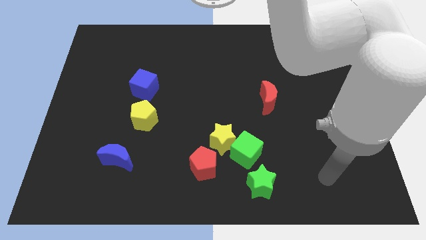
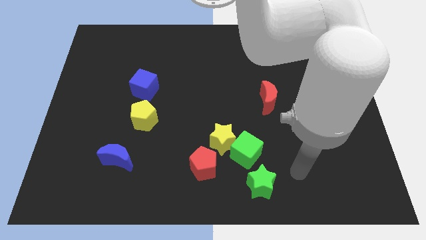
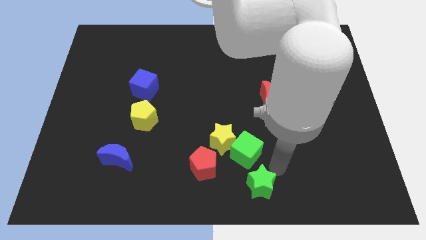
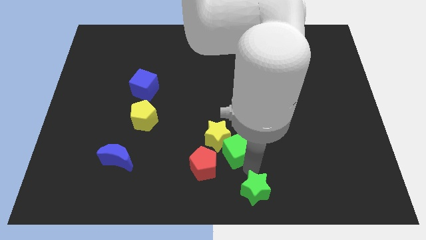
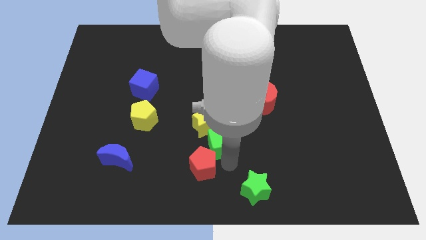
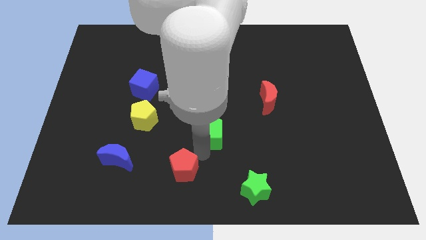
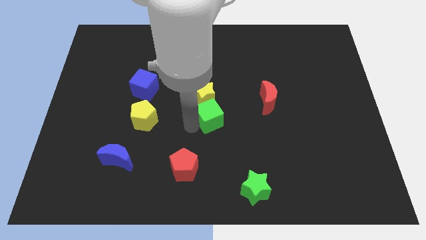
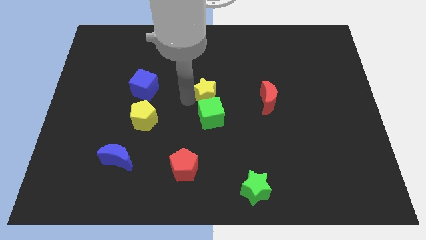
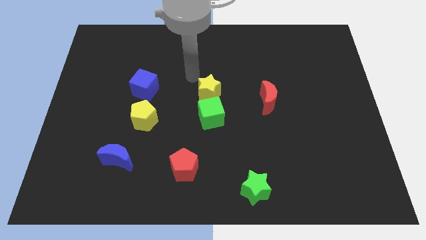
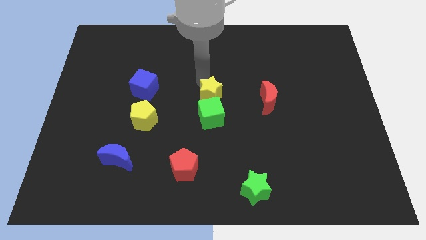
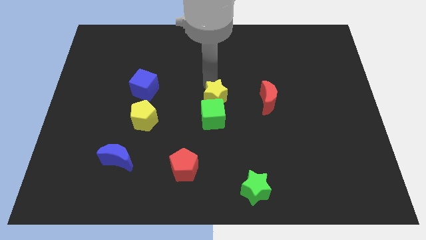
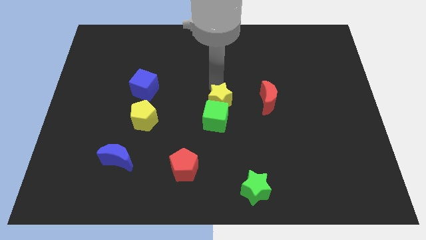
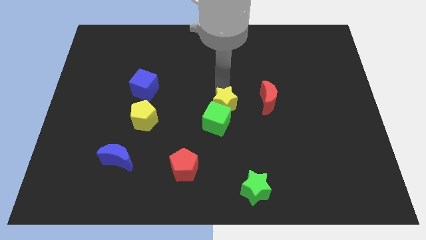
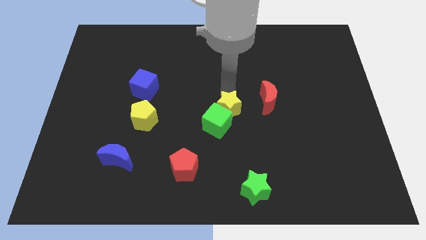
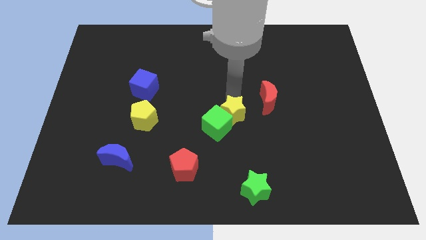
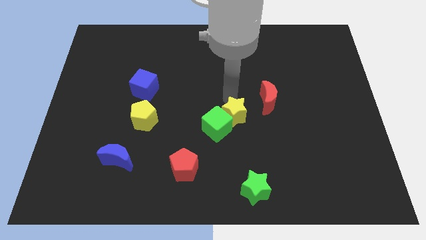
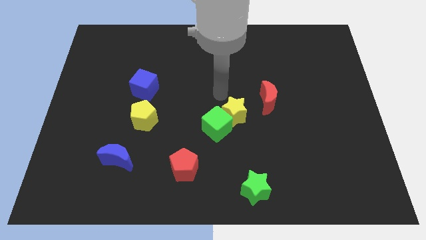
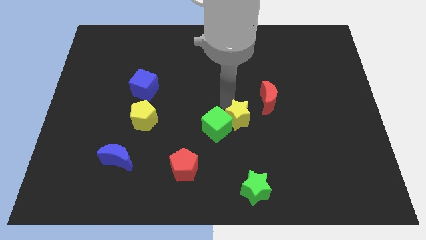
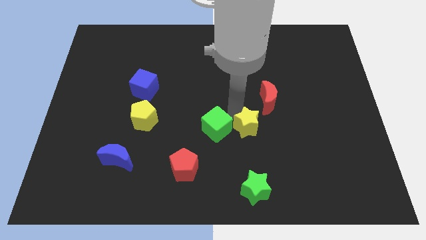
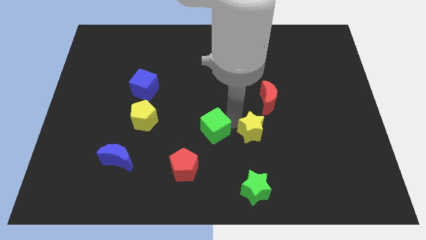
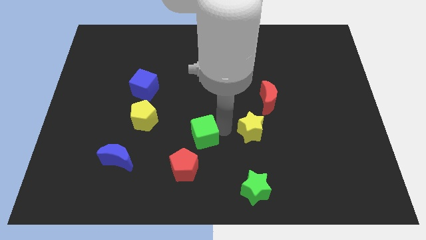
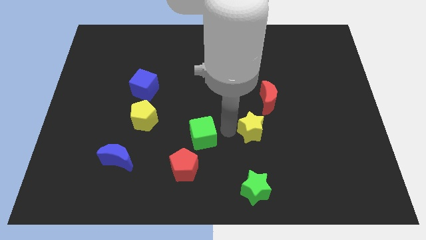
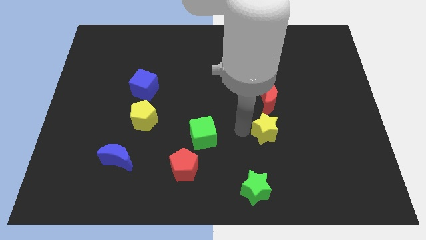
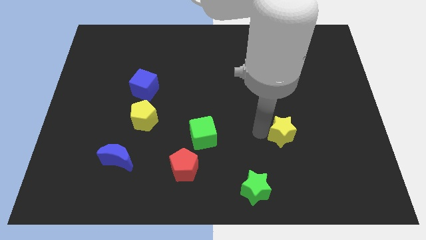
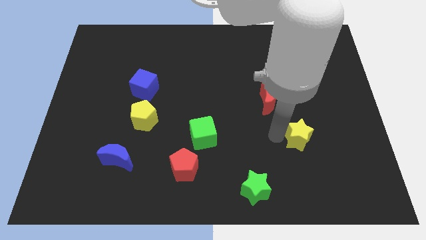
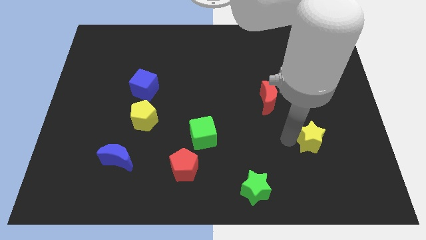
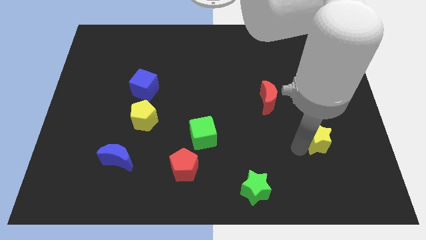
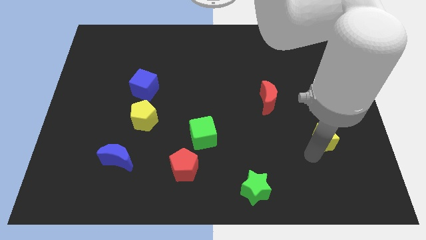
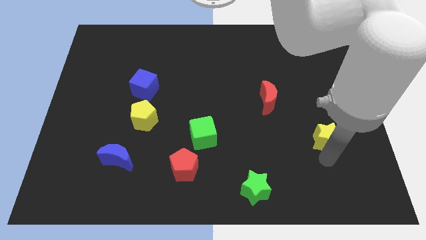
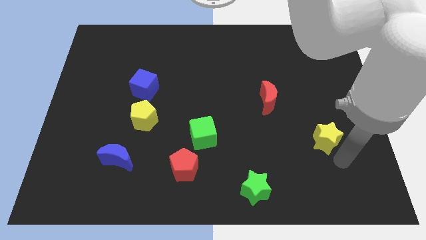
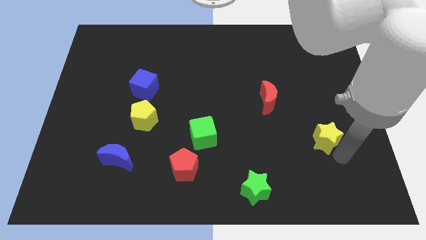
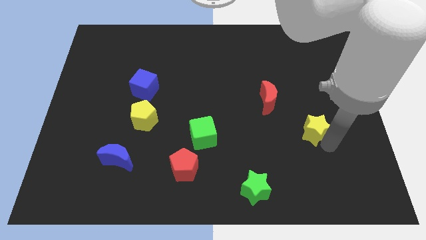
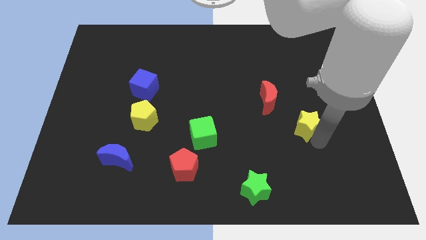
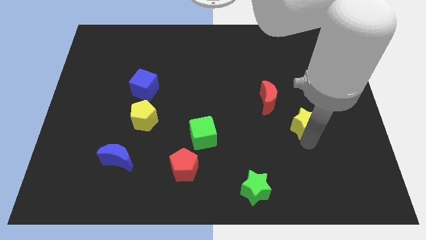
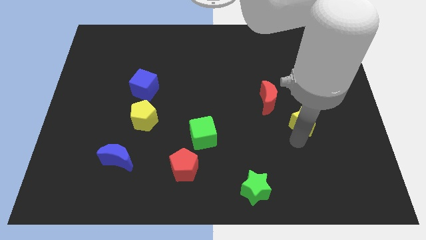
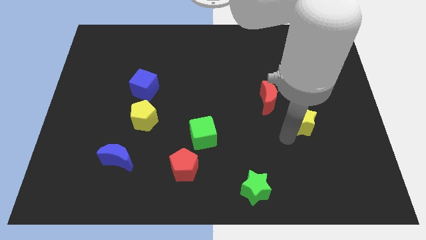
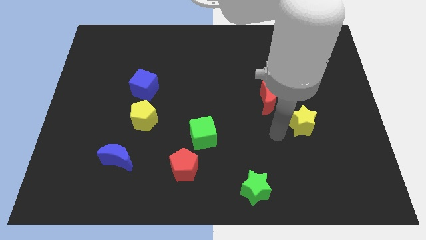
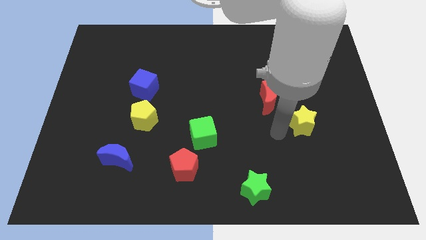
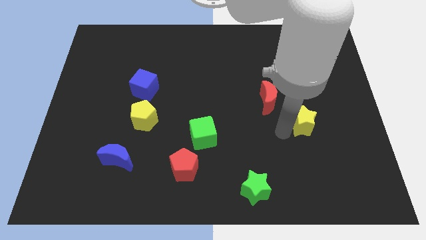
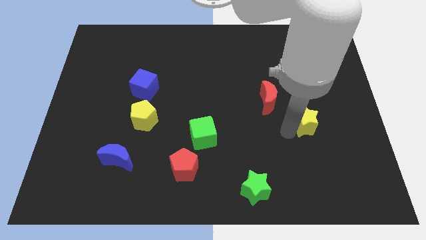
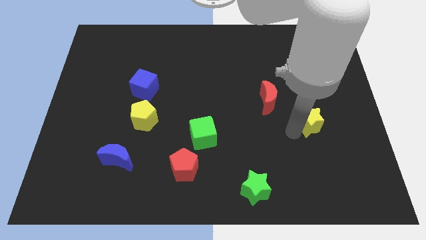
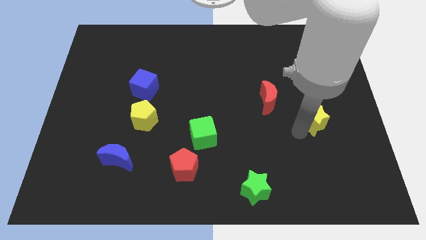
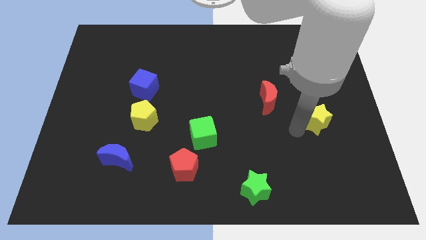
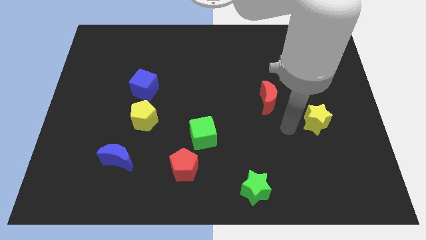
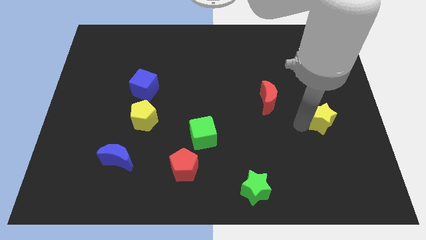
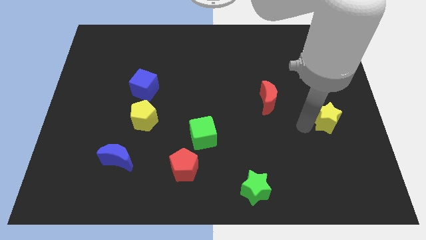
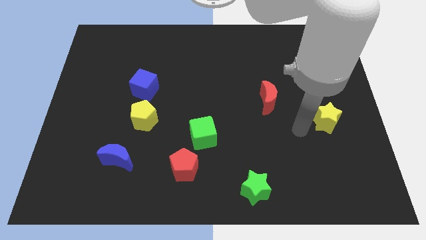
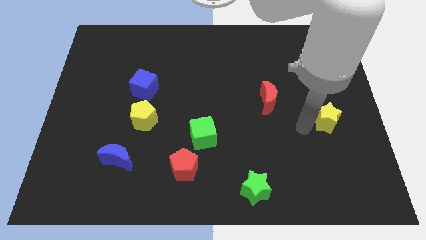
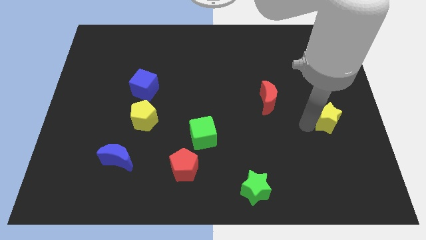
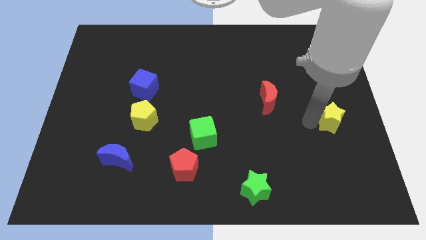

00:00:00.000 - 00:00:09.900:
slide the yellow star to the right side

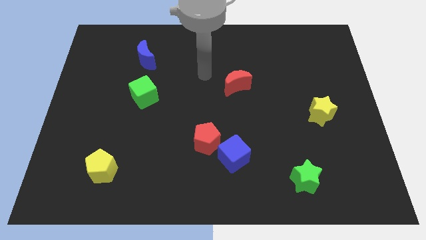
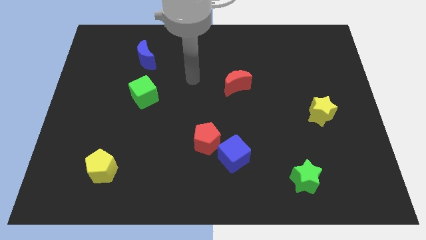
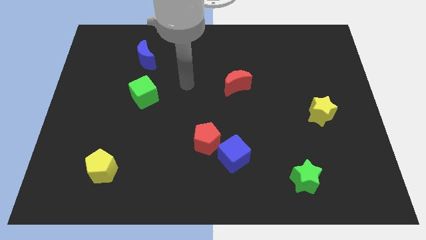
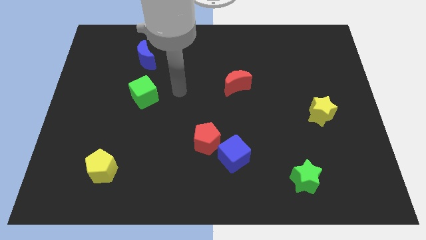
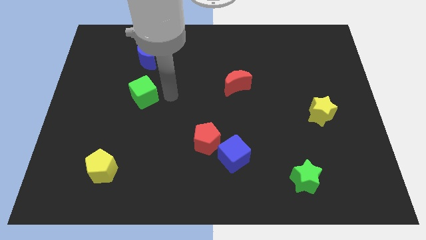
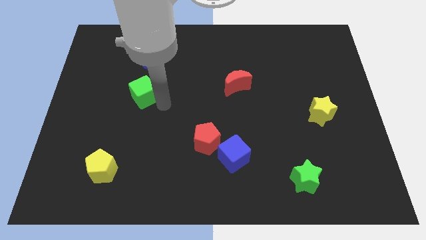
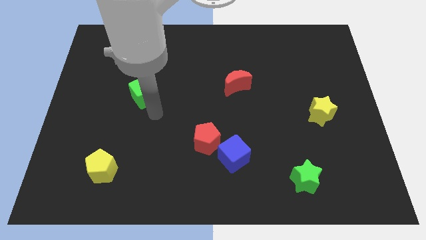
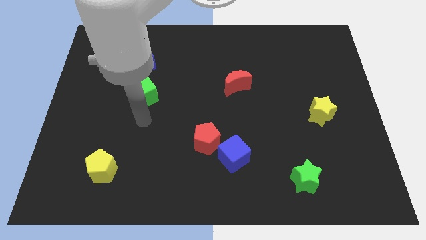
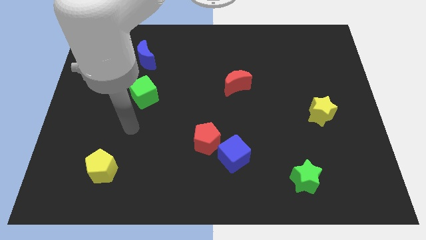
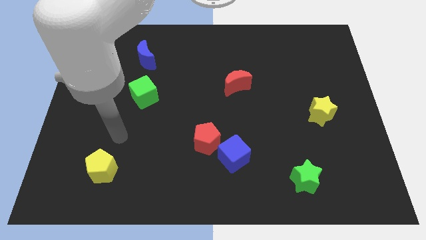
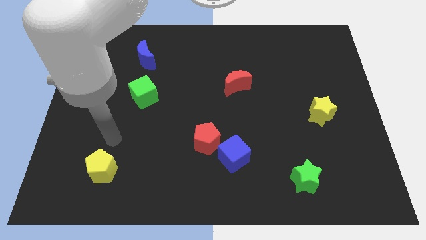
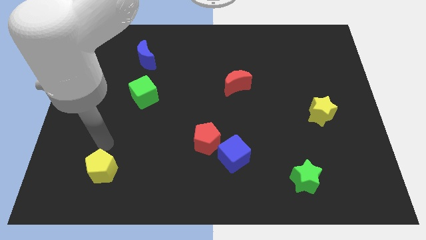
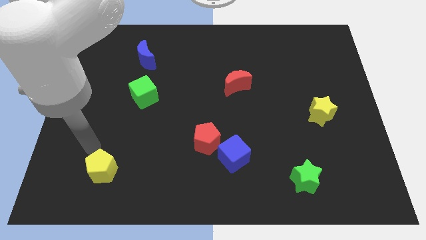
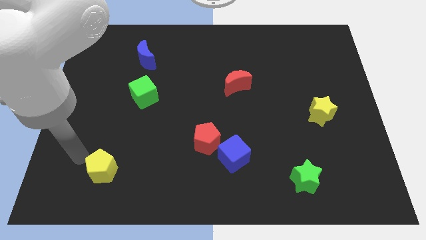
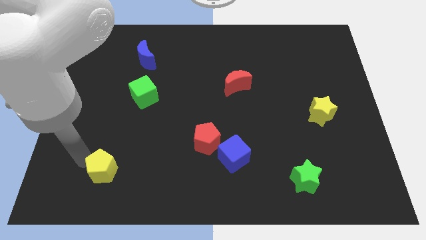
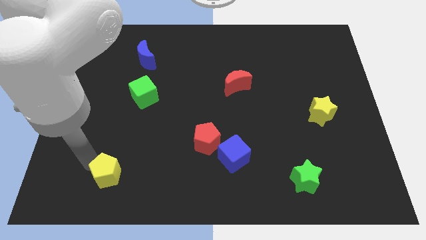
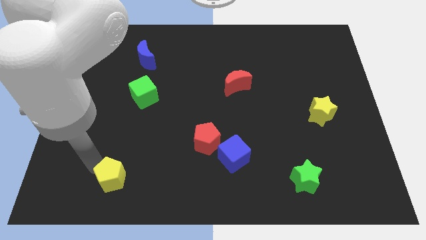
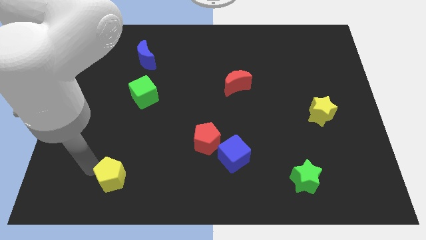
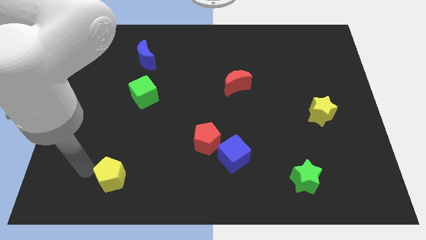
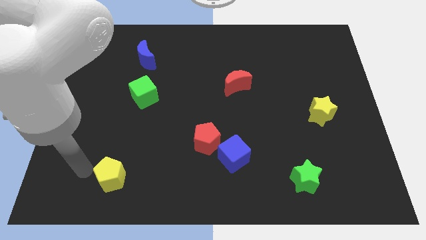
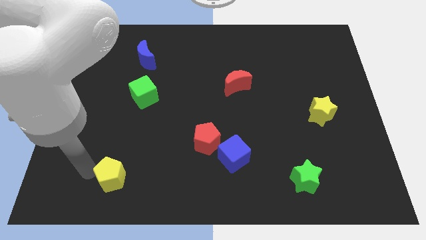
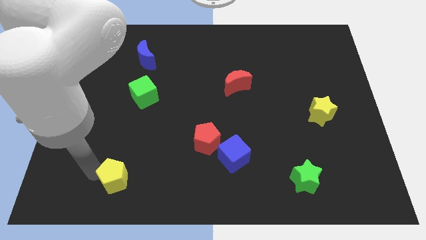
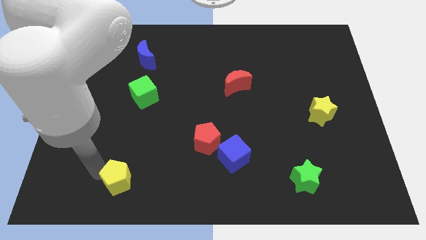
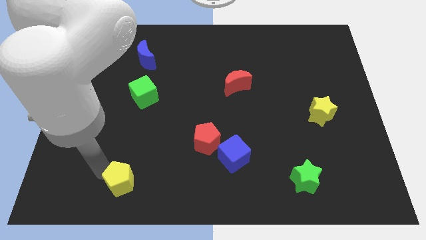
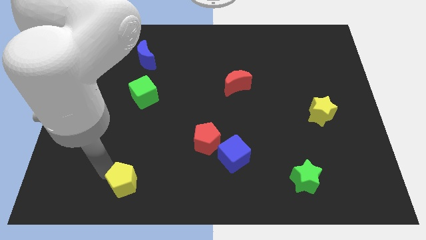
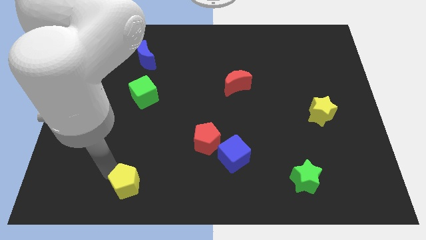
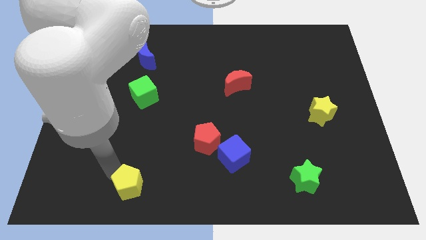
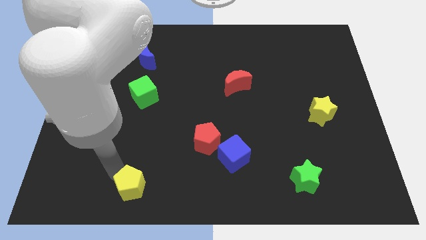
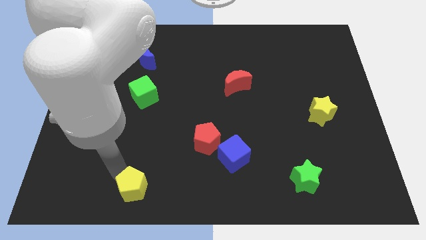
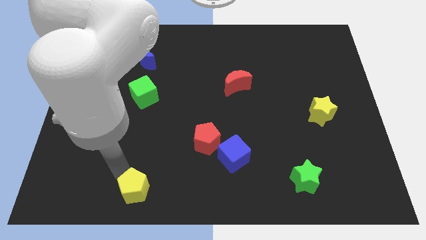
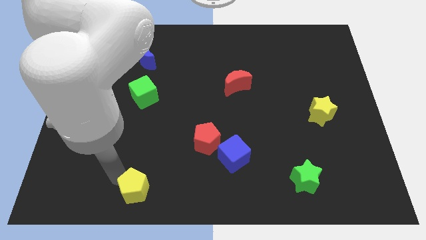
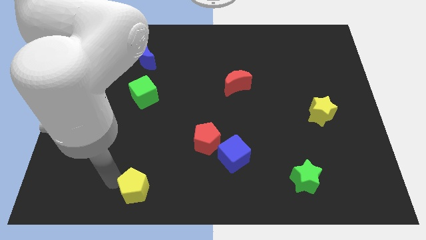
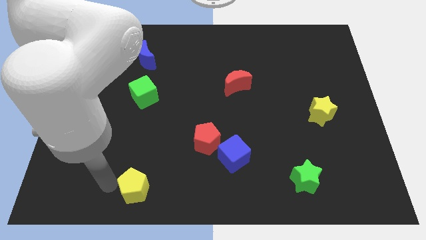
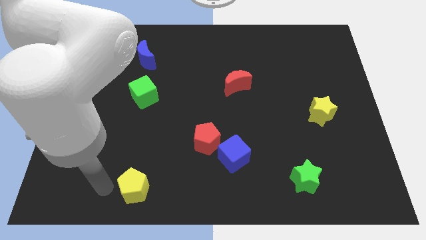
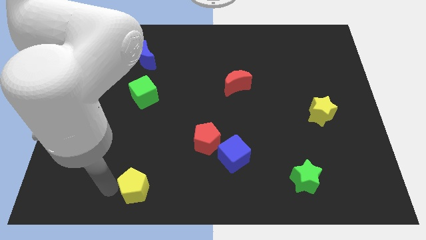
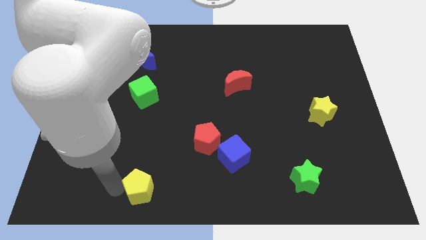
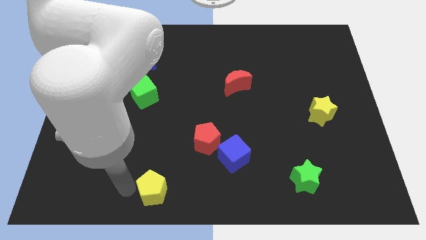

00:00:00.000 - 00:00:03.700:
put the yellow pentagon to the bottom
